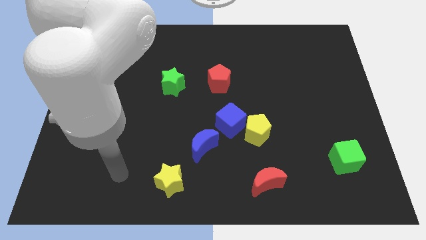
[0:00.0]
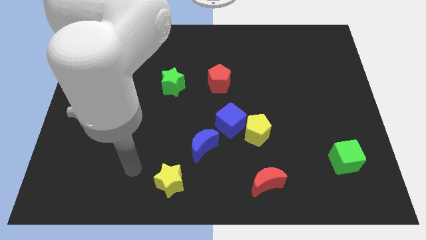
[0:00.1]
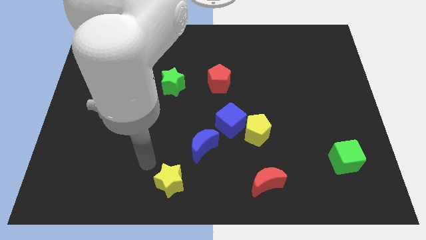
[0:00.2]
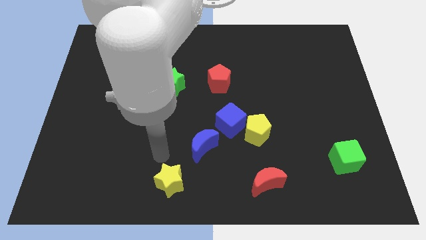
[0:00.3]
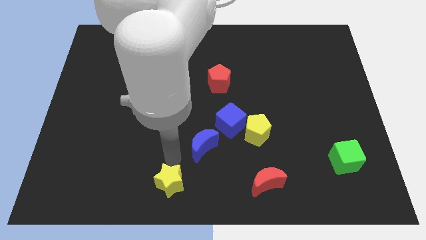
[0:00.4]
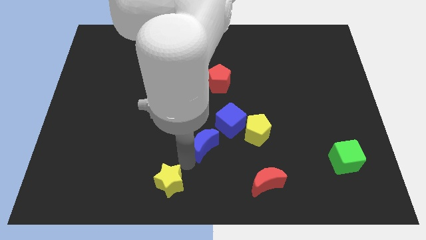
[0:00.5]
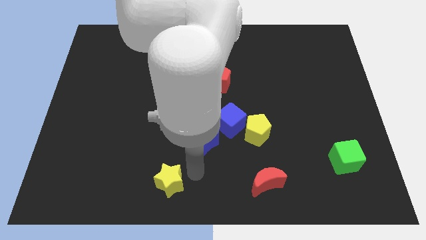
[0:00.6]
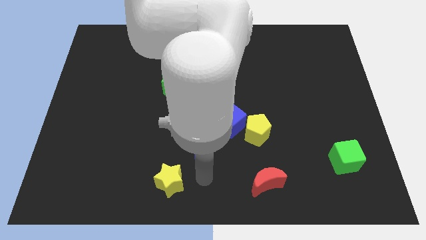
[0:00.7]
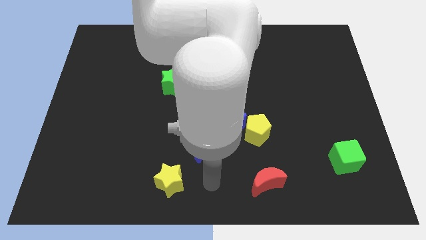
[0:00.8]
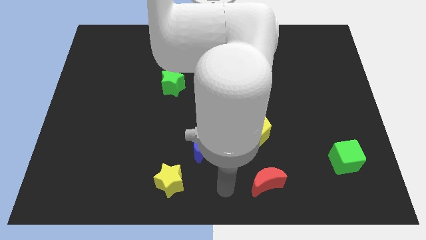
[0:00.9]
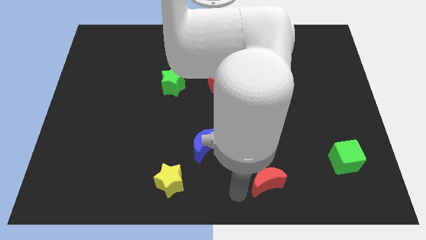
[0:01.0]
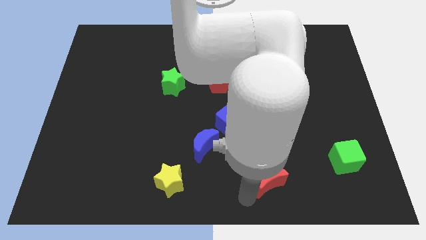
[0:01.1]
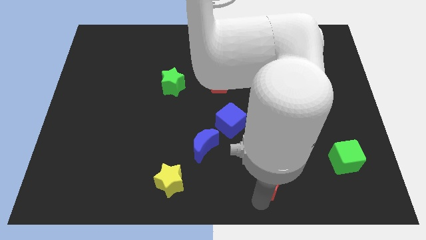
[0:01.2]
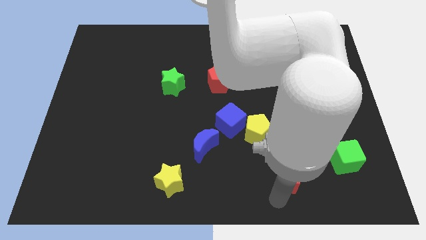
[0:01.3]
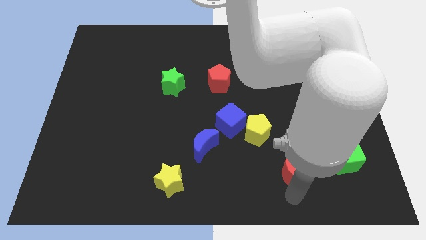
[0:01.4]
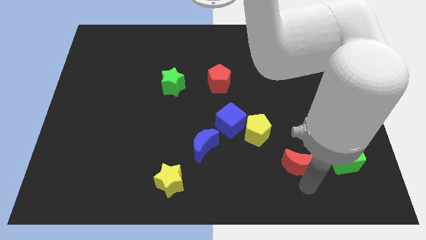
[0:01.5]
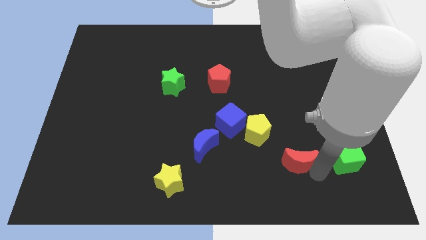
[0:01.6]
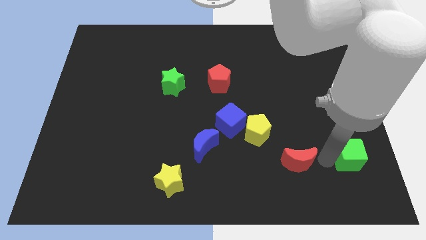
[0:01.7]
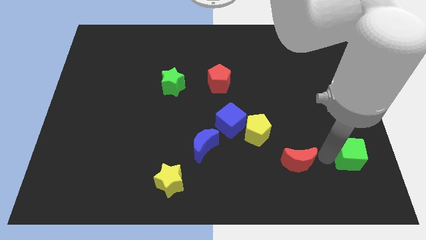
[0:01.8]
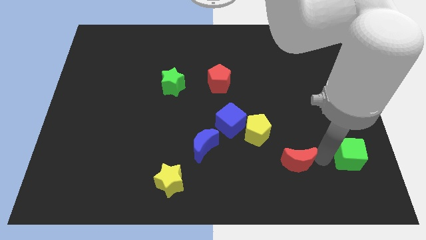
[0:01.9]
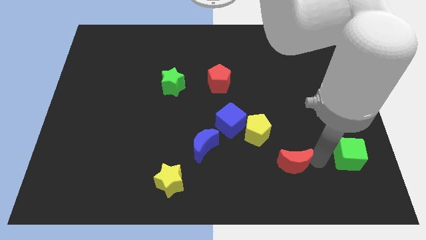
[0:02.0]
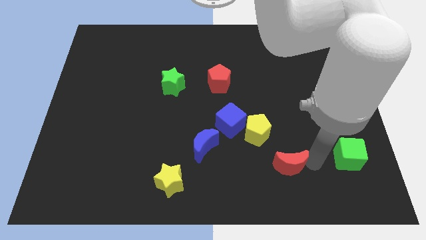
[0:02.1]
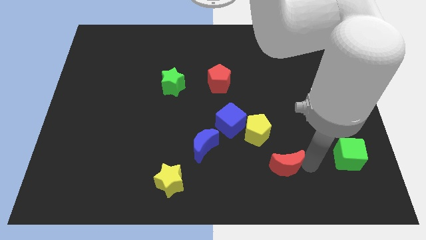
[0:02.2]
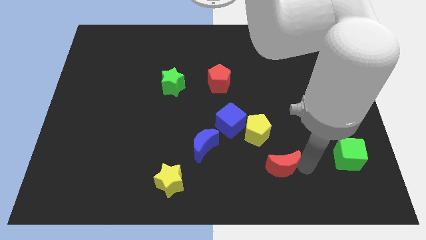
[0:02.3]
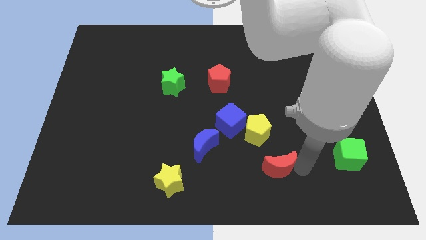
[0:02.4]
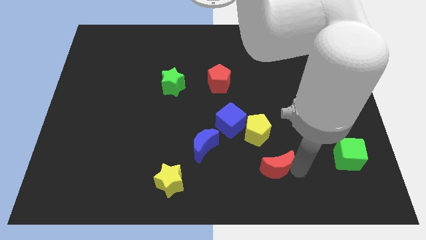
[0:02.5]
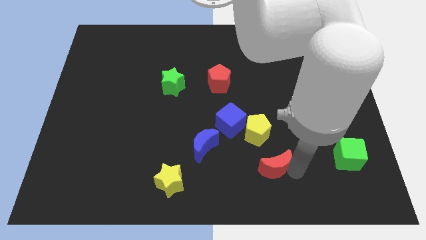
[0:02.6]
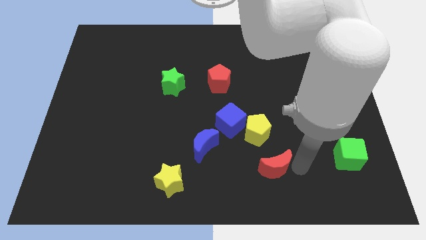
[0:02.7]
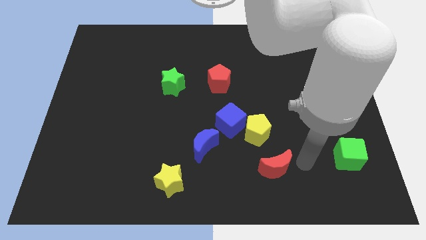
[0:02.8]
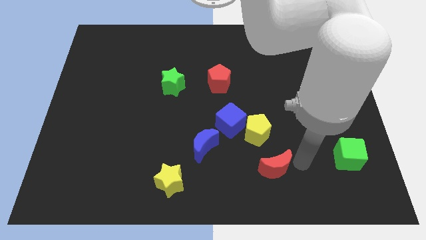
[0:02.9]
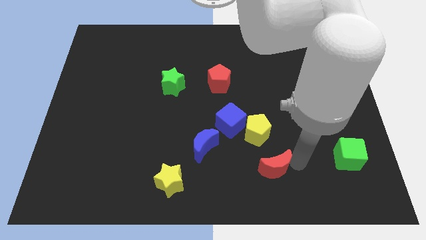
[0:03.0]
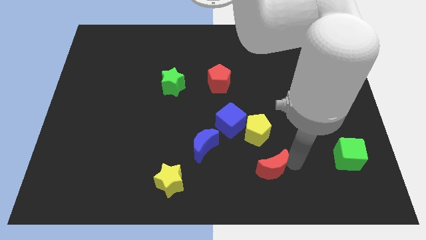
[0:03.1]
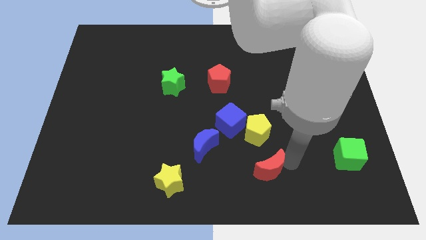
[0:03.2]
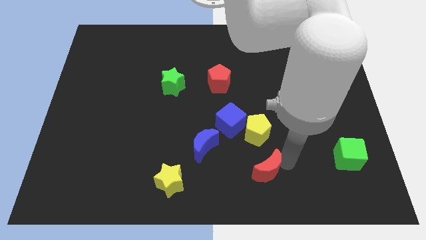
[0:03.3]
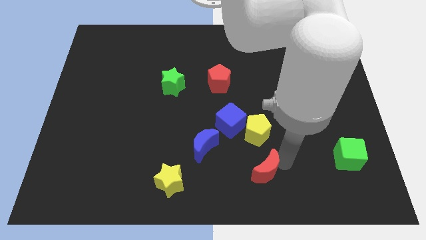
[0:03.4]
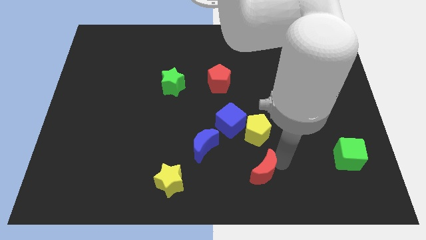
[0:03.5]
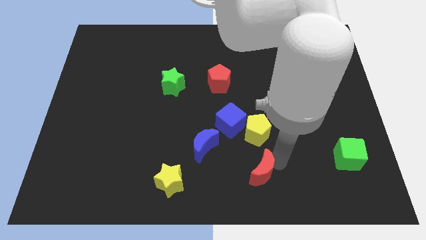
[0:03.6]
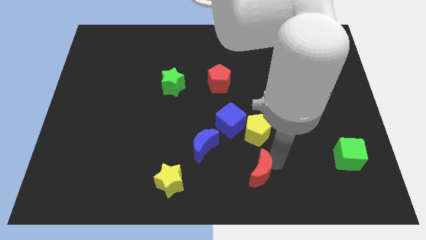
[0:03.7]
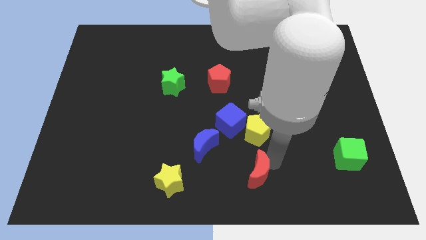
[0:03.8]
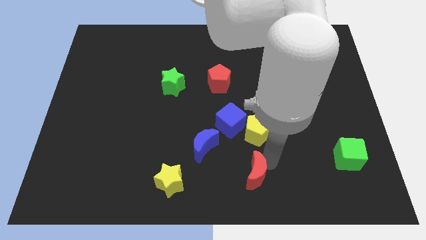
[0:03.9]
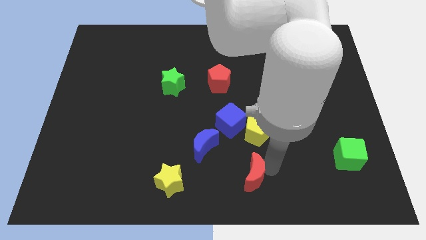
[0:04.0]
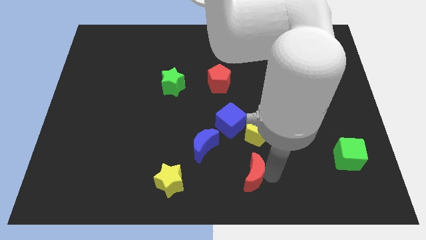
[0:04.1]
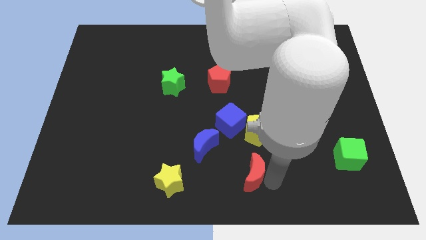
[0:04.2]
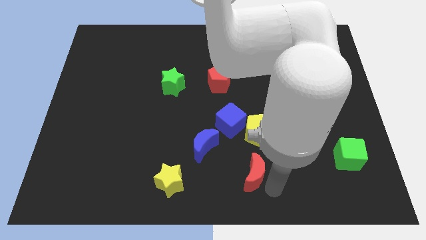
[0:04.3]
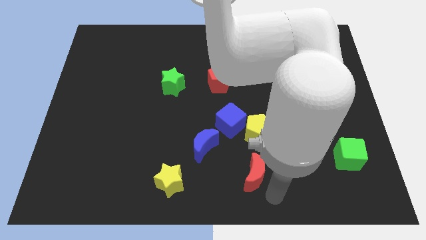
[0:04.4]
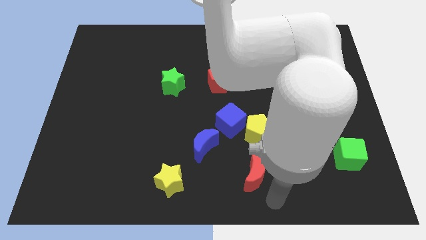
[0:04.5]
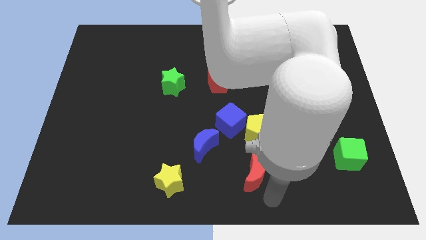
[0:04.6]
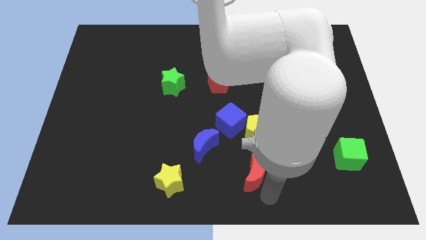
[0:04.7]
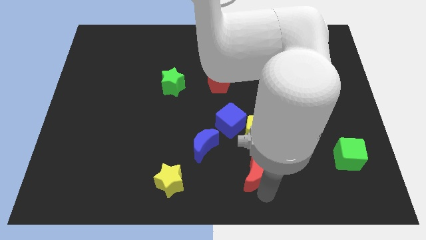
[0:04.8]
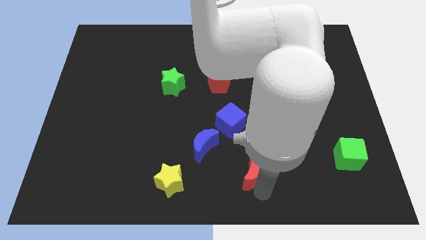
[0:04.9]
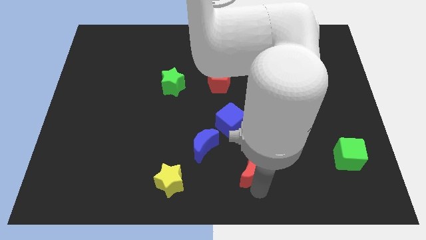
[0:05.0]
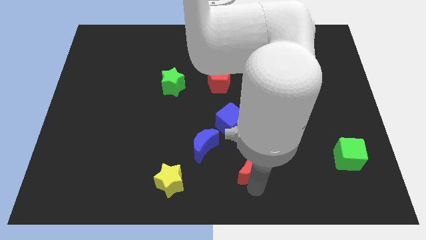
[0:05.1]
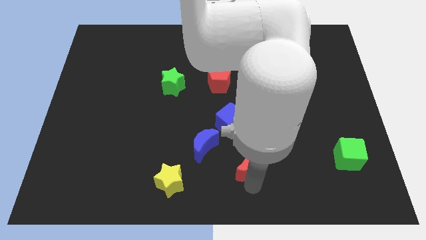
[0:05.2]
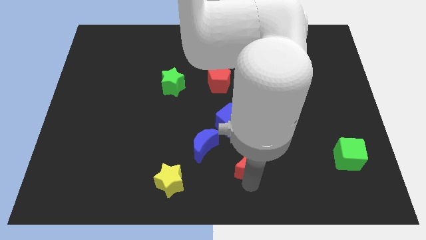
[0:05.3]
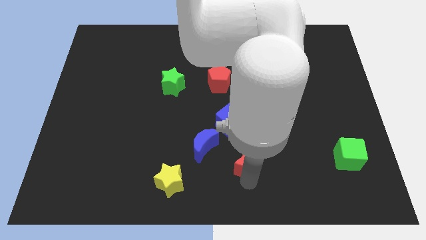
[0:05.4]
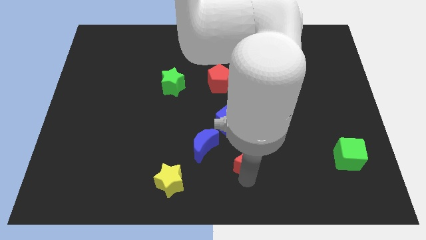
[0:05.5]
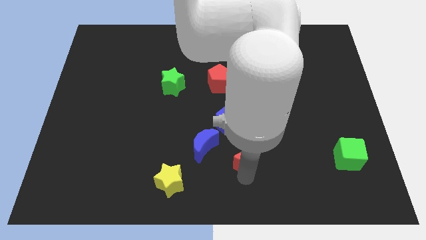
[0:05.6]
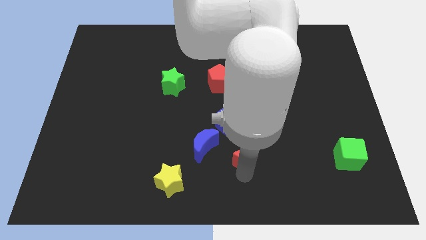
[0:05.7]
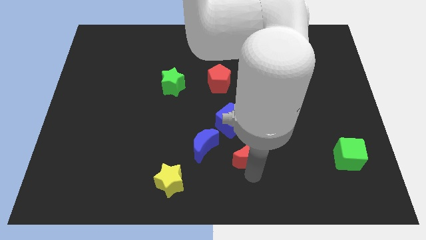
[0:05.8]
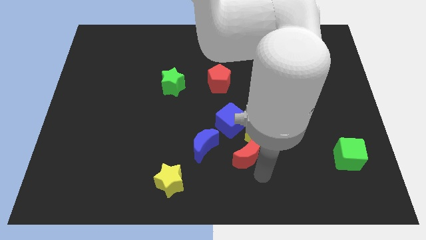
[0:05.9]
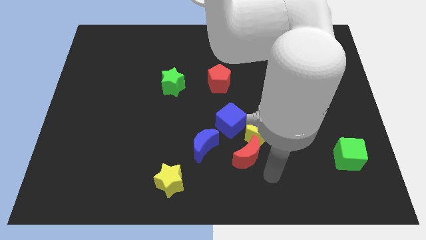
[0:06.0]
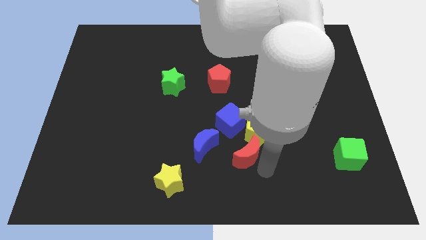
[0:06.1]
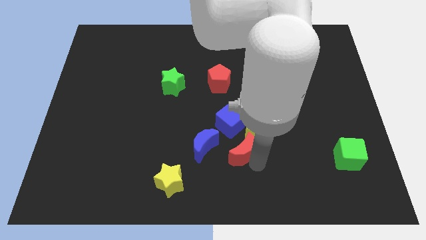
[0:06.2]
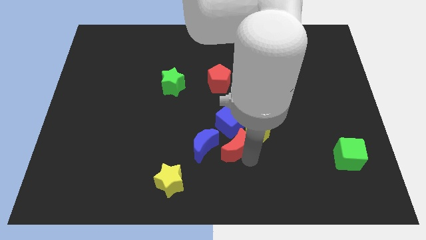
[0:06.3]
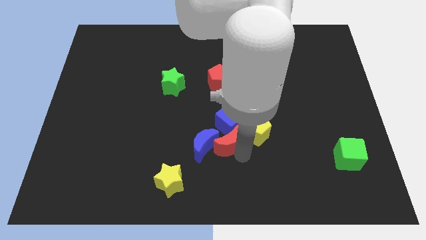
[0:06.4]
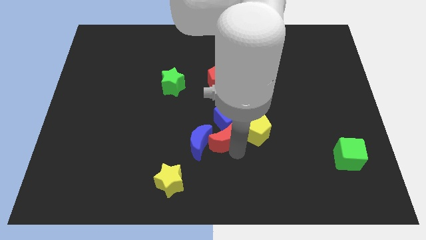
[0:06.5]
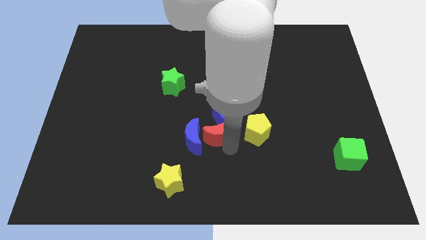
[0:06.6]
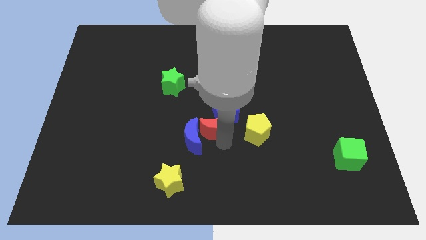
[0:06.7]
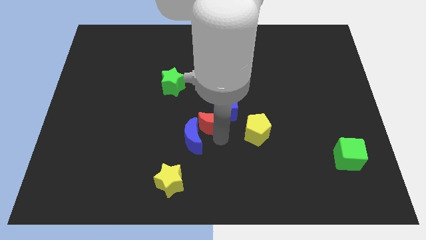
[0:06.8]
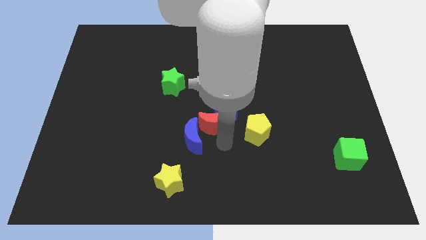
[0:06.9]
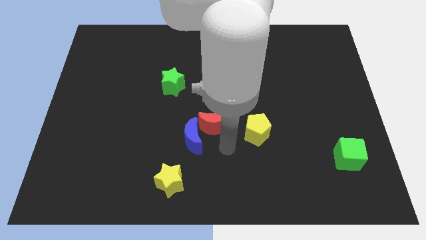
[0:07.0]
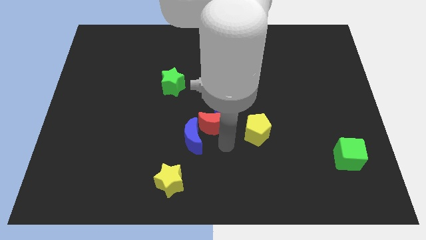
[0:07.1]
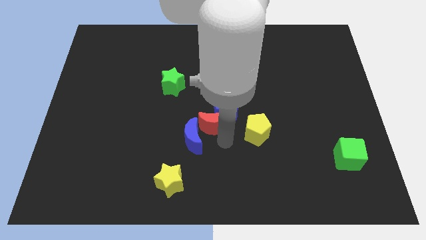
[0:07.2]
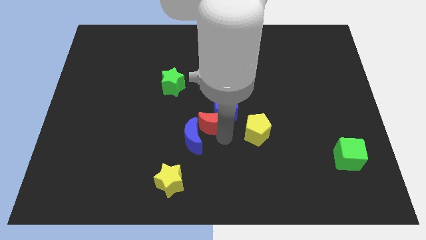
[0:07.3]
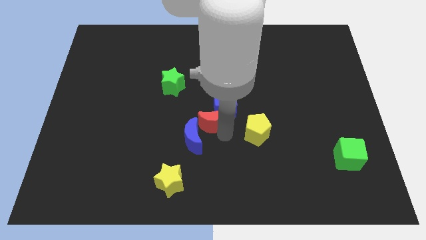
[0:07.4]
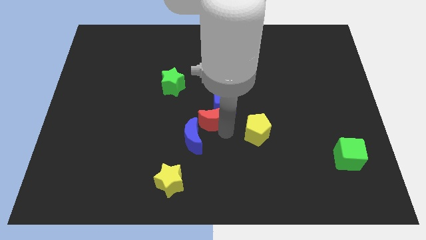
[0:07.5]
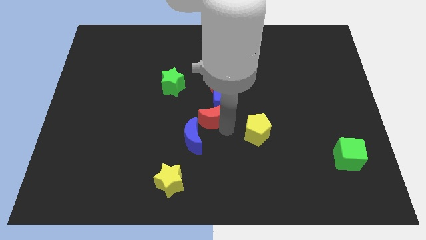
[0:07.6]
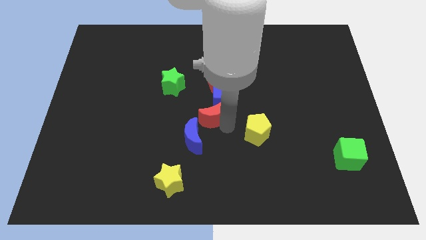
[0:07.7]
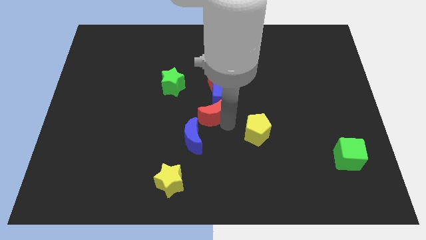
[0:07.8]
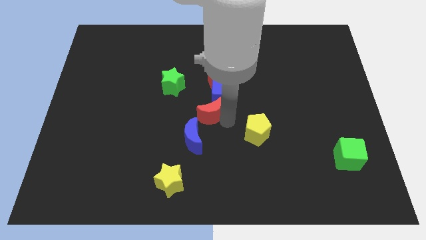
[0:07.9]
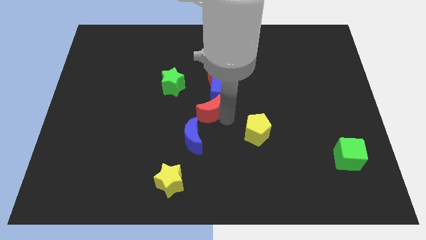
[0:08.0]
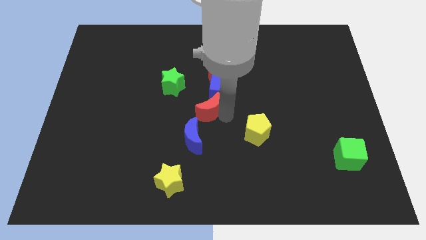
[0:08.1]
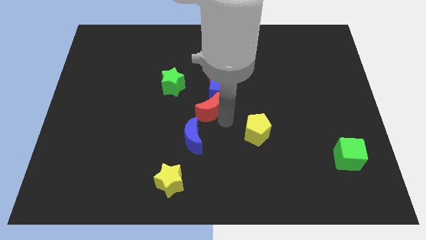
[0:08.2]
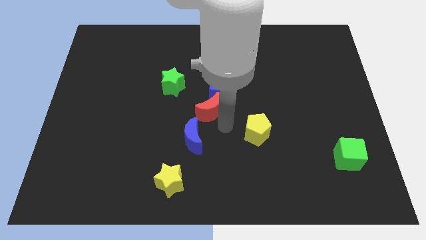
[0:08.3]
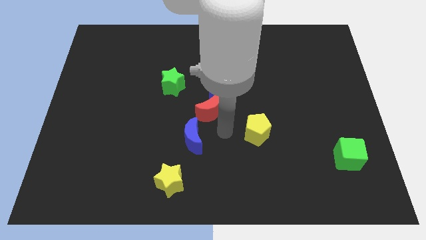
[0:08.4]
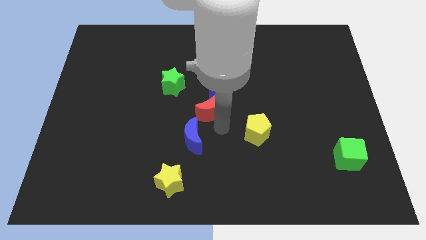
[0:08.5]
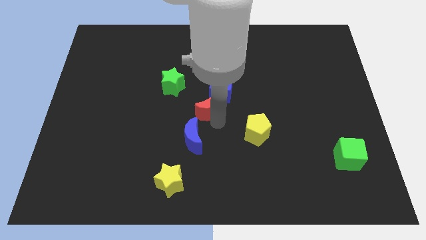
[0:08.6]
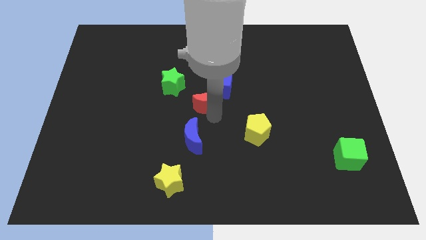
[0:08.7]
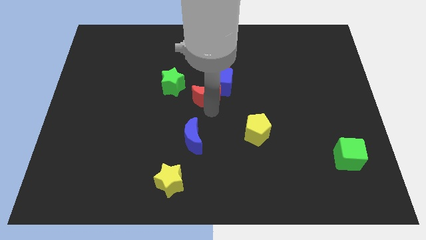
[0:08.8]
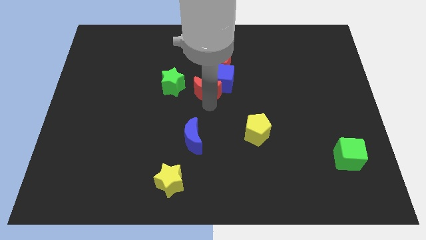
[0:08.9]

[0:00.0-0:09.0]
push the red moon to the bottom left of the red pentagon
